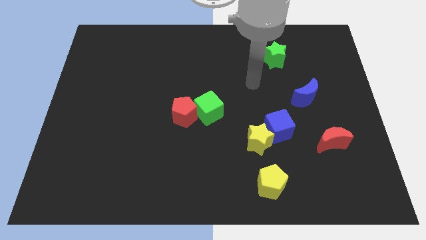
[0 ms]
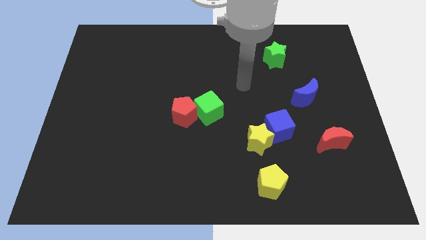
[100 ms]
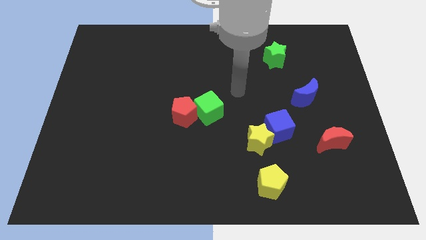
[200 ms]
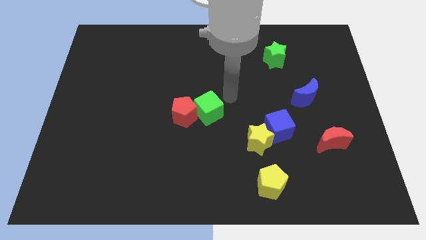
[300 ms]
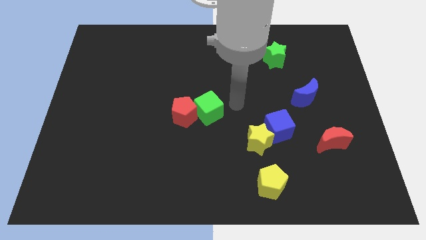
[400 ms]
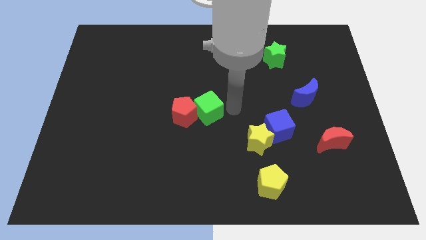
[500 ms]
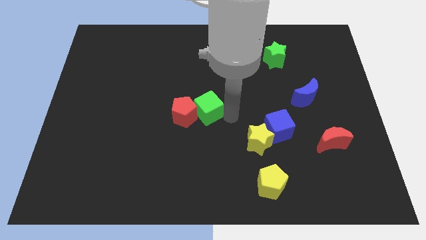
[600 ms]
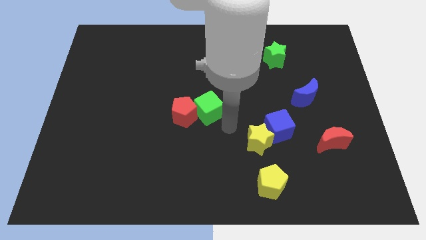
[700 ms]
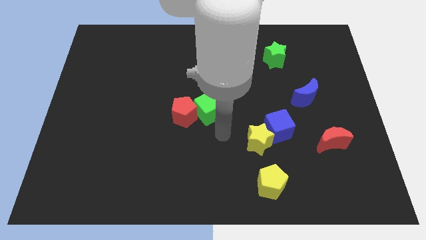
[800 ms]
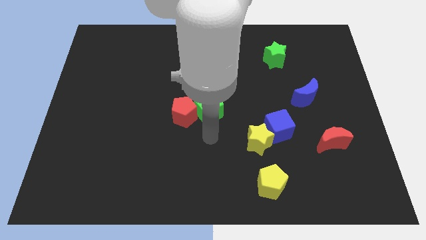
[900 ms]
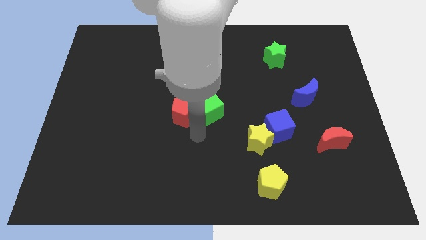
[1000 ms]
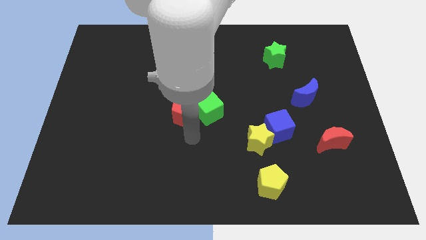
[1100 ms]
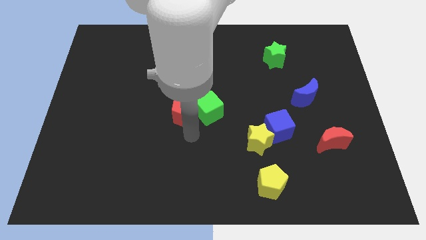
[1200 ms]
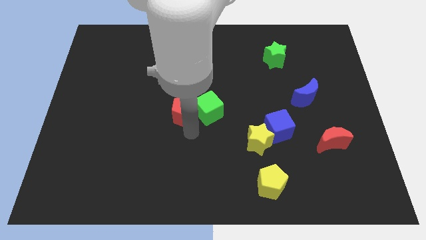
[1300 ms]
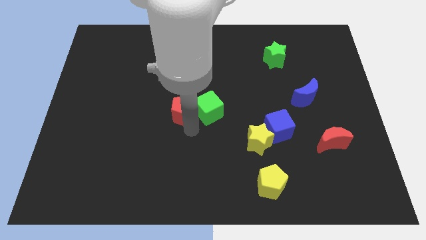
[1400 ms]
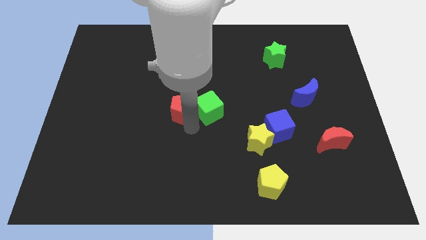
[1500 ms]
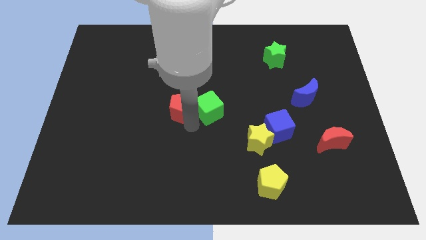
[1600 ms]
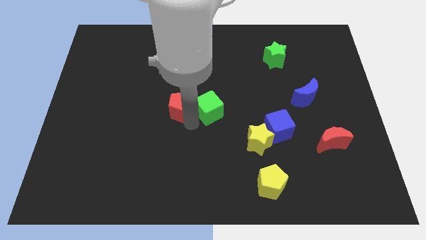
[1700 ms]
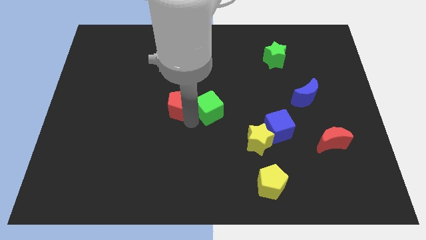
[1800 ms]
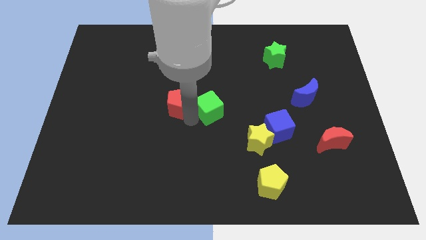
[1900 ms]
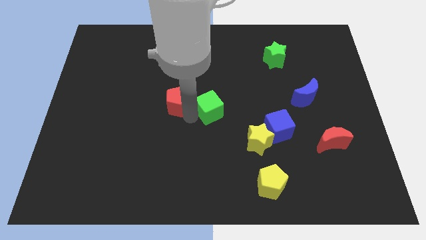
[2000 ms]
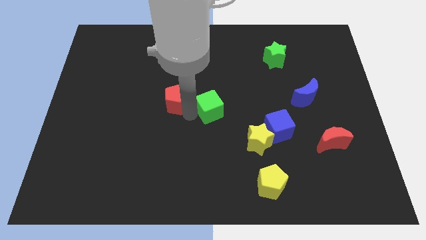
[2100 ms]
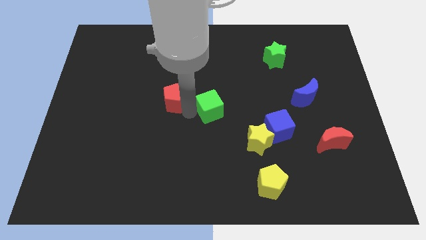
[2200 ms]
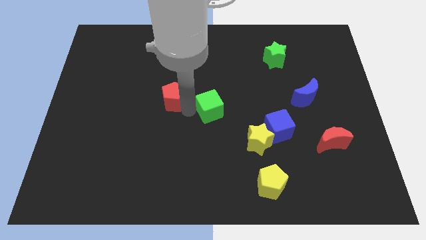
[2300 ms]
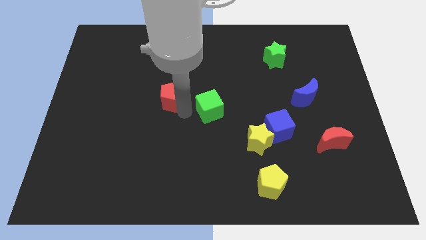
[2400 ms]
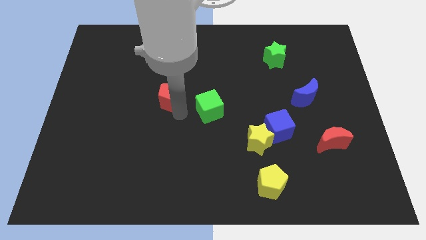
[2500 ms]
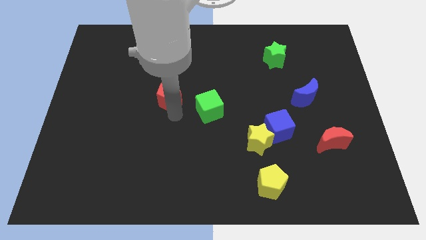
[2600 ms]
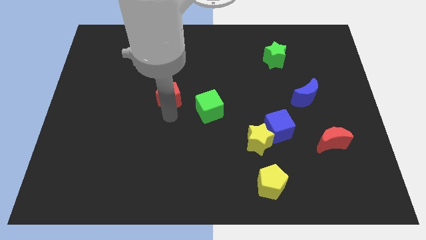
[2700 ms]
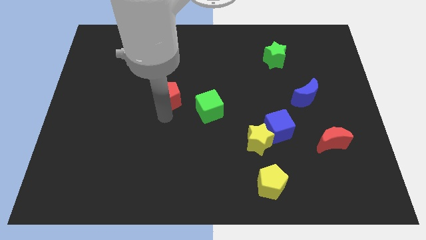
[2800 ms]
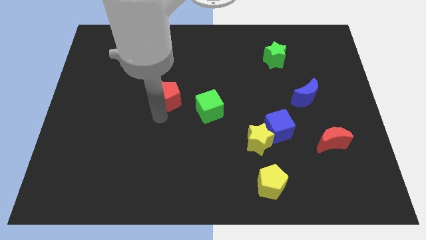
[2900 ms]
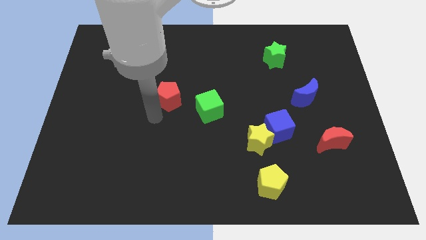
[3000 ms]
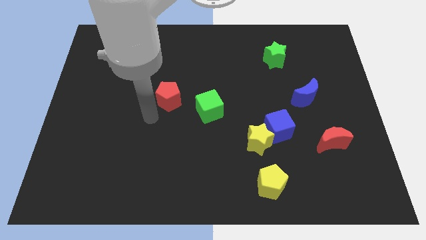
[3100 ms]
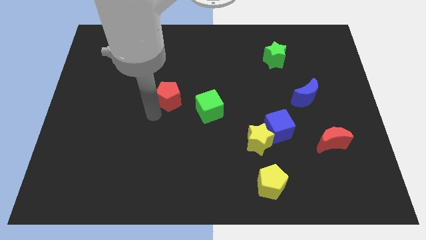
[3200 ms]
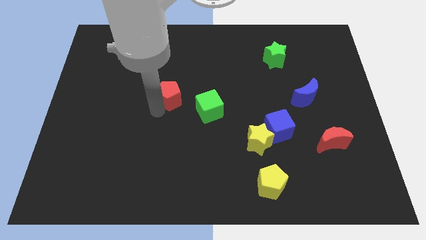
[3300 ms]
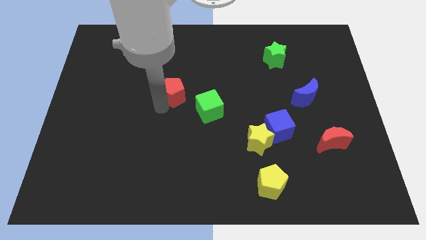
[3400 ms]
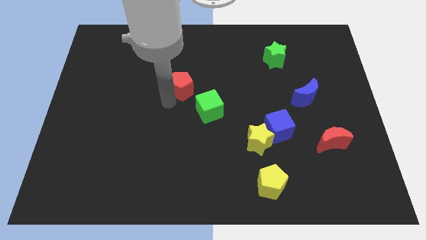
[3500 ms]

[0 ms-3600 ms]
slightly slide the red pentagon up

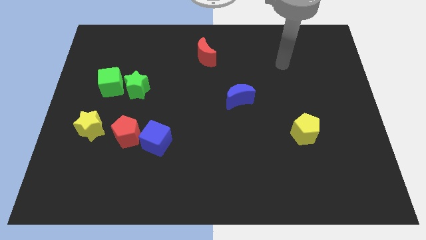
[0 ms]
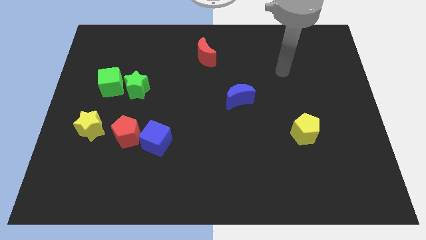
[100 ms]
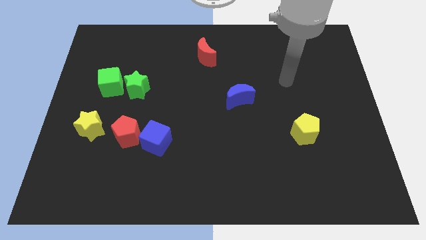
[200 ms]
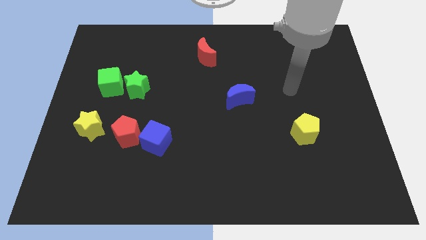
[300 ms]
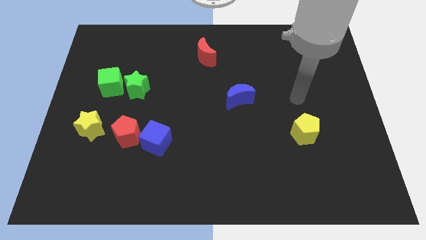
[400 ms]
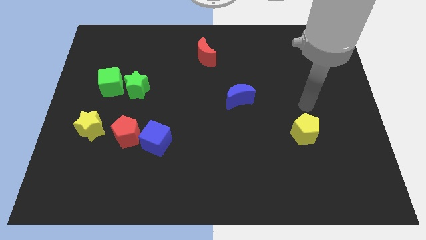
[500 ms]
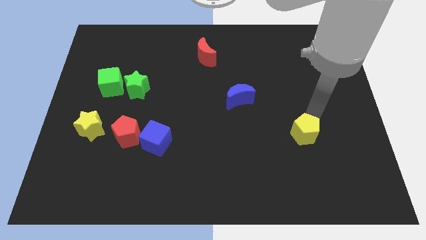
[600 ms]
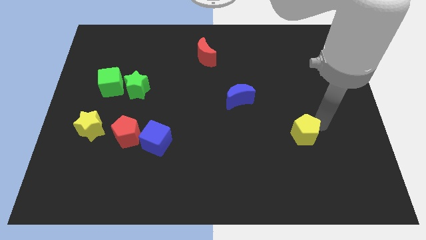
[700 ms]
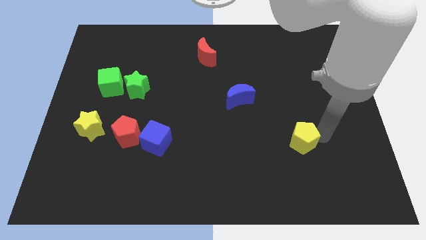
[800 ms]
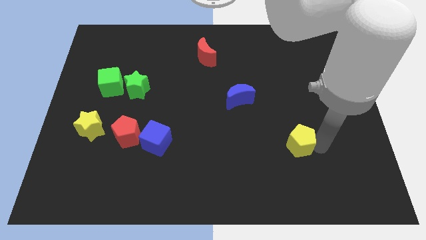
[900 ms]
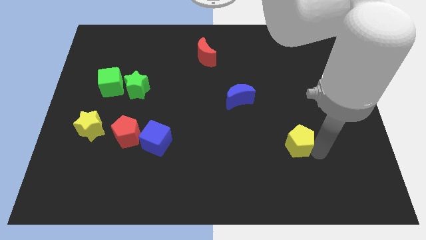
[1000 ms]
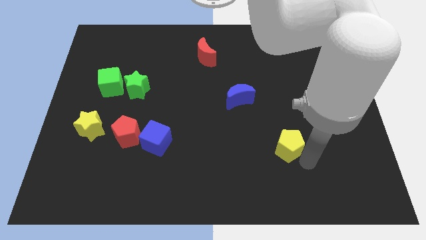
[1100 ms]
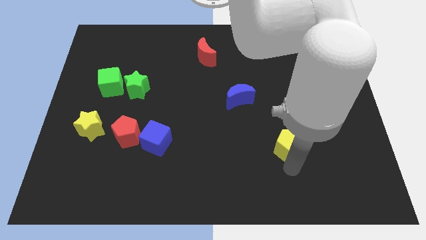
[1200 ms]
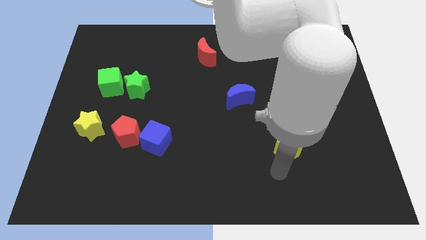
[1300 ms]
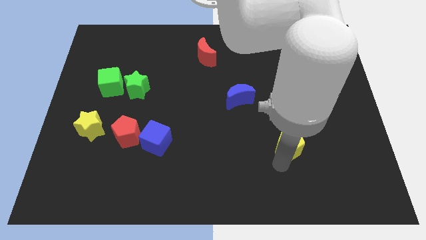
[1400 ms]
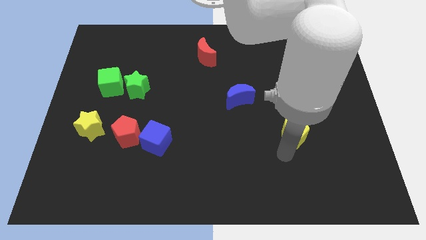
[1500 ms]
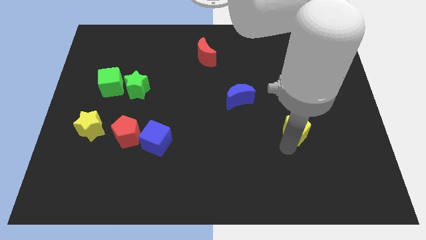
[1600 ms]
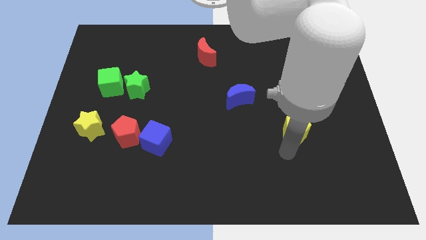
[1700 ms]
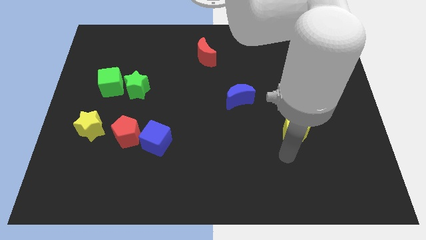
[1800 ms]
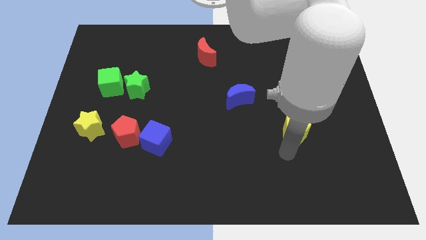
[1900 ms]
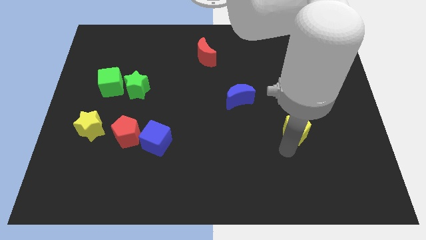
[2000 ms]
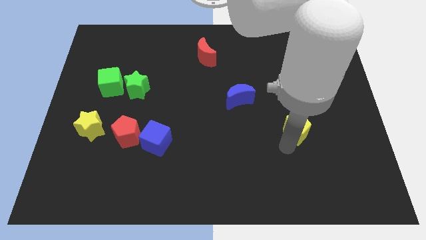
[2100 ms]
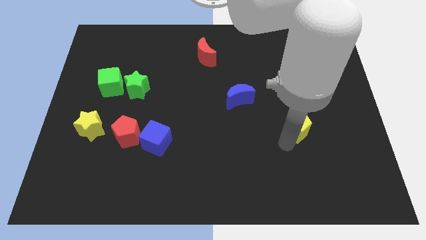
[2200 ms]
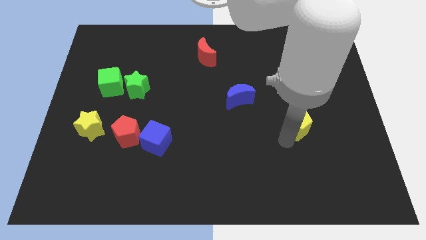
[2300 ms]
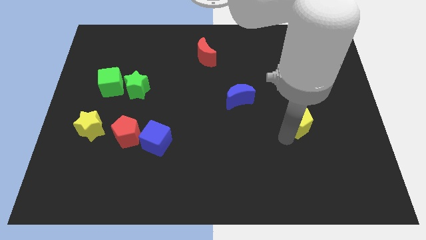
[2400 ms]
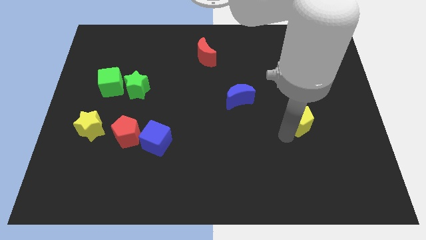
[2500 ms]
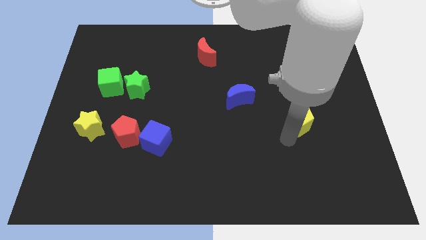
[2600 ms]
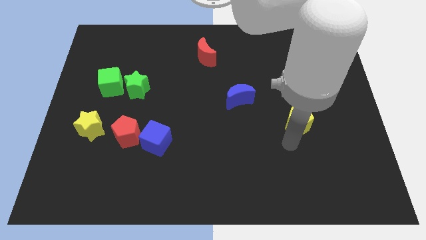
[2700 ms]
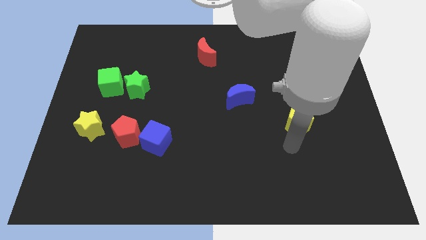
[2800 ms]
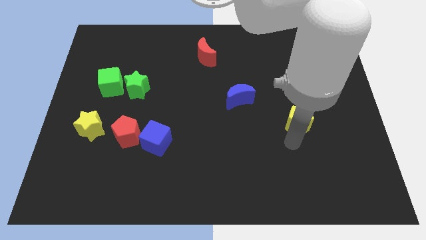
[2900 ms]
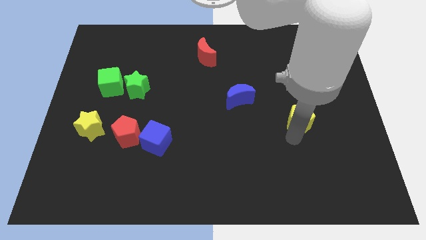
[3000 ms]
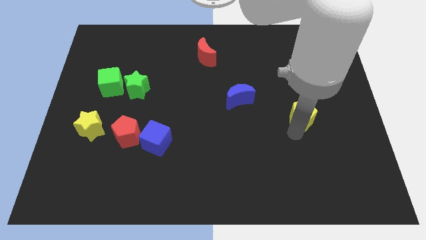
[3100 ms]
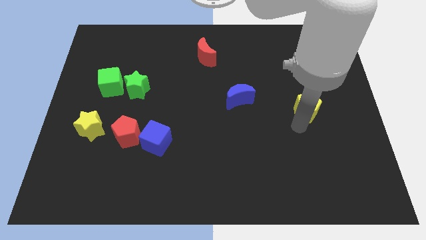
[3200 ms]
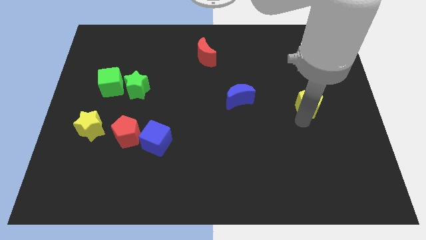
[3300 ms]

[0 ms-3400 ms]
push the yellow pentagon a bit up

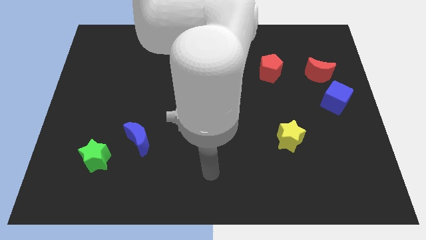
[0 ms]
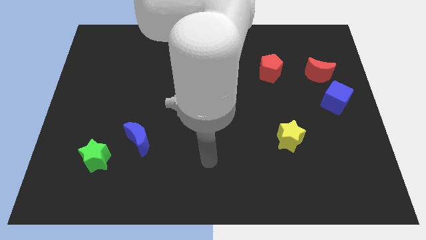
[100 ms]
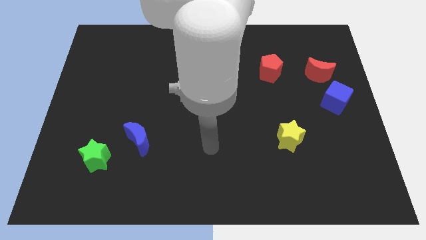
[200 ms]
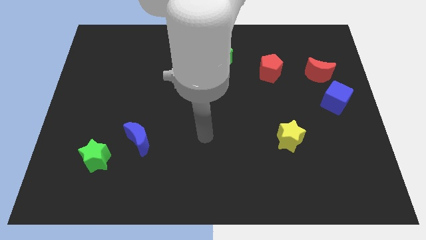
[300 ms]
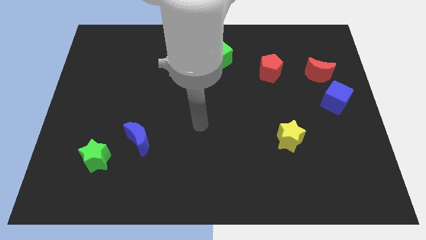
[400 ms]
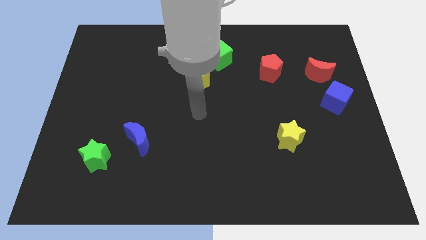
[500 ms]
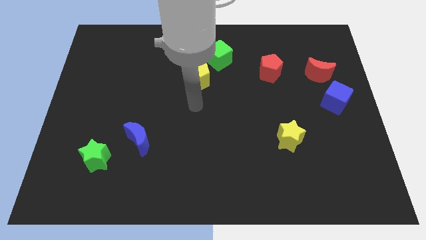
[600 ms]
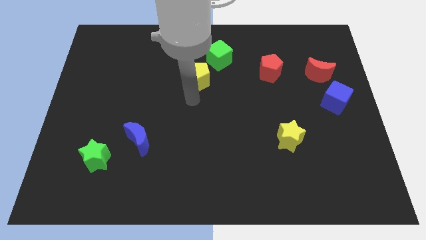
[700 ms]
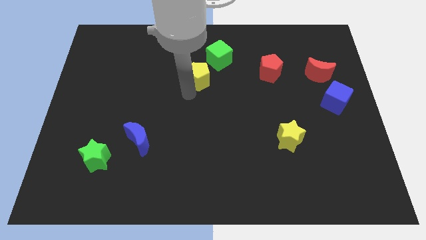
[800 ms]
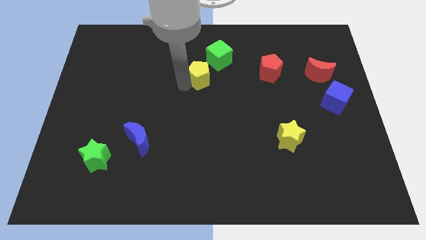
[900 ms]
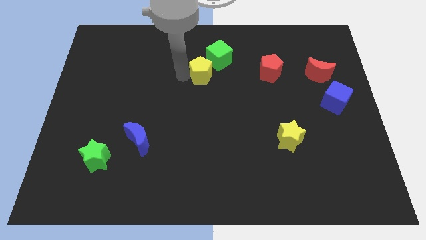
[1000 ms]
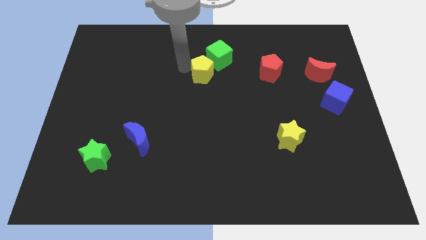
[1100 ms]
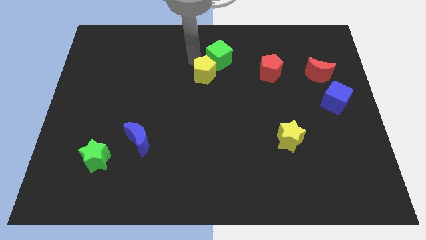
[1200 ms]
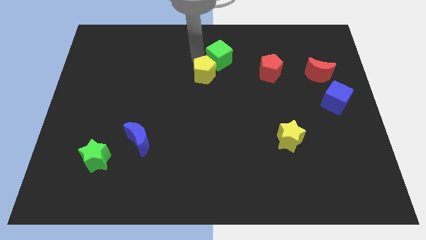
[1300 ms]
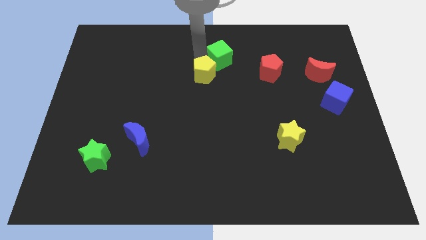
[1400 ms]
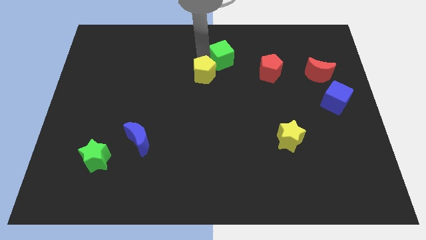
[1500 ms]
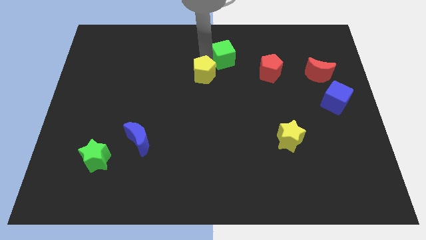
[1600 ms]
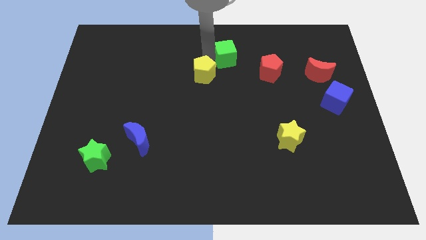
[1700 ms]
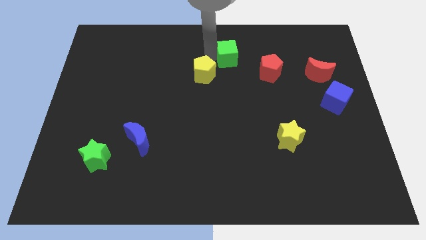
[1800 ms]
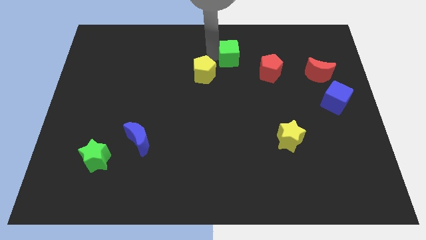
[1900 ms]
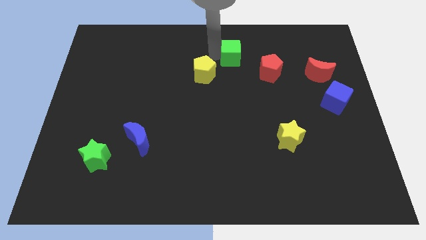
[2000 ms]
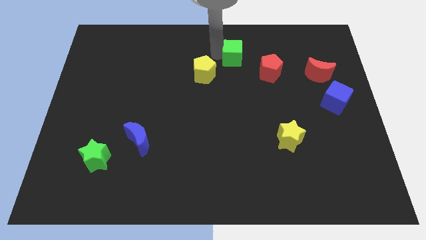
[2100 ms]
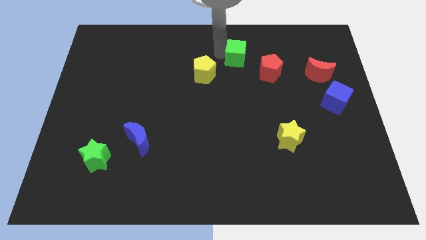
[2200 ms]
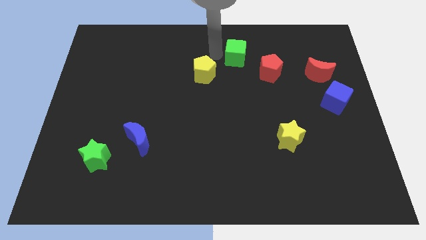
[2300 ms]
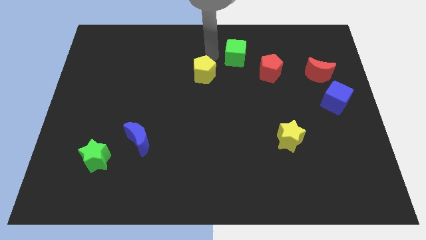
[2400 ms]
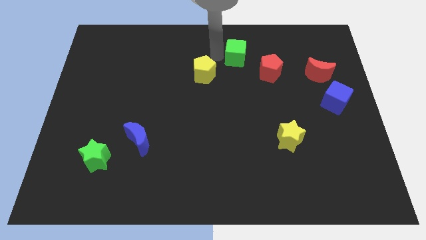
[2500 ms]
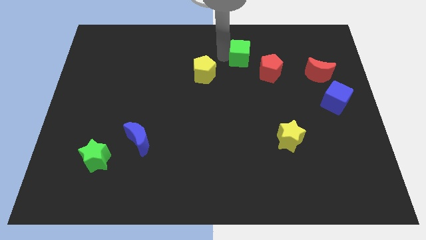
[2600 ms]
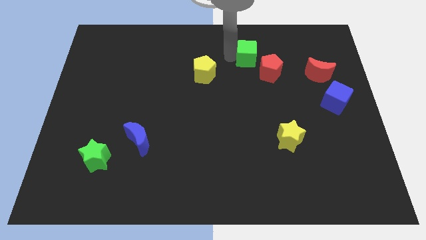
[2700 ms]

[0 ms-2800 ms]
move the green cube slightly right
